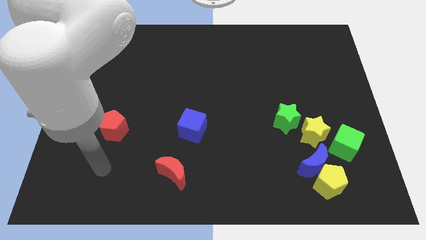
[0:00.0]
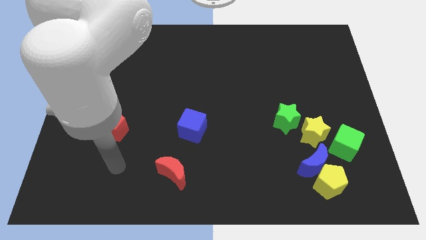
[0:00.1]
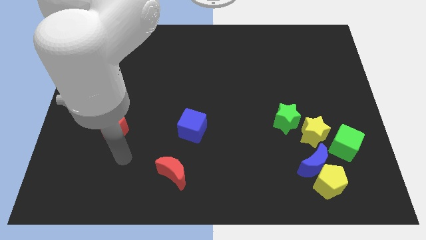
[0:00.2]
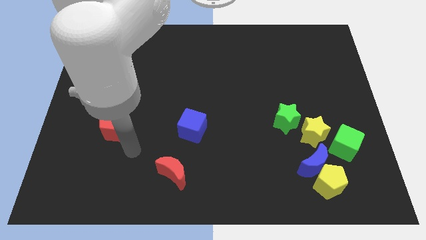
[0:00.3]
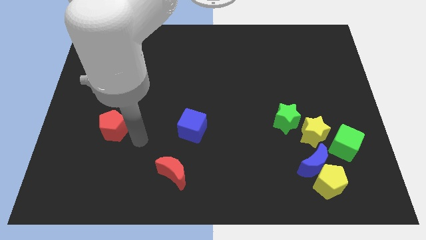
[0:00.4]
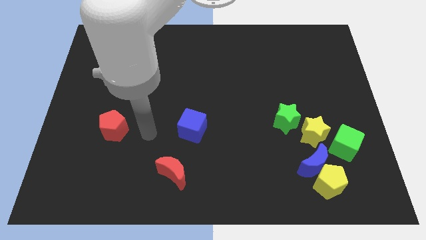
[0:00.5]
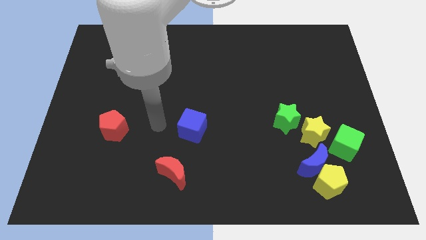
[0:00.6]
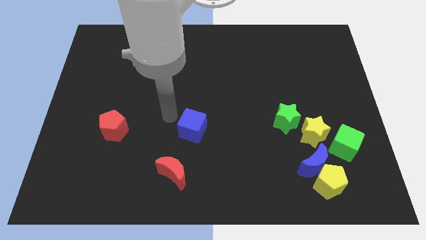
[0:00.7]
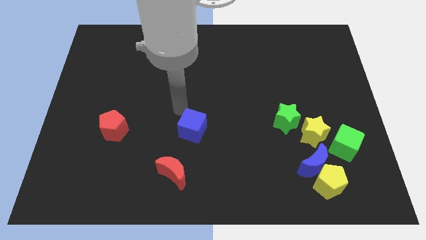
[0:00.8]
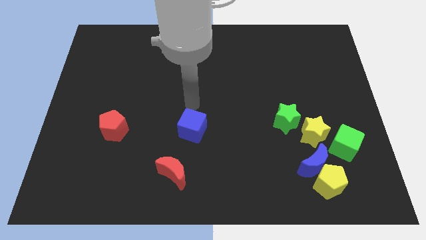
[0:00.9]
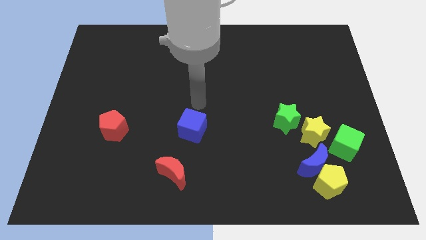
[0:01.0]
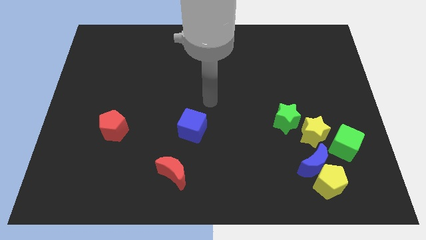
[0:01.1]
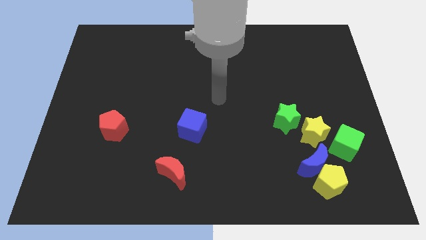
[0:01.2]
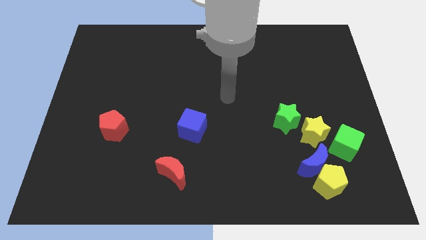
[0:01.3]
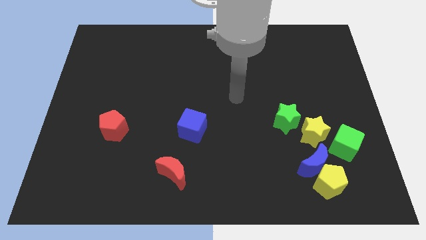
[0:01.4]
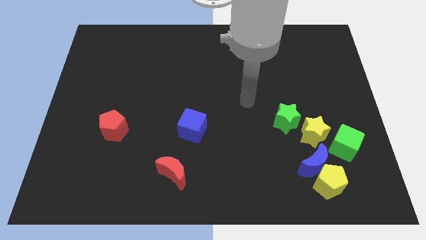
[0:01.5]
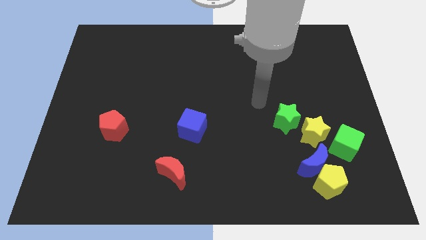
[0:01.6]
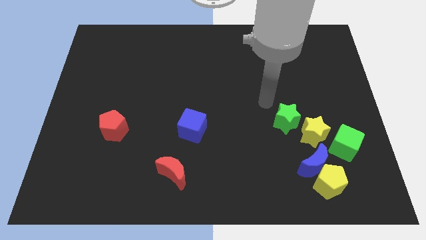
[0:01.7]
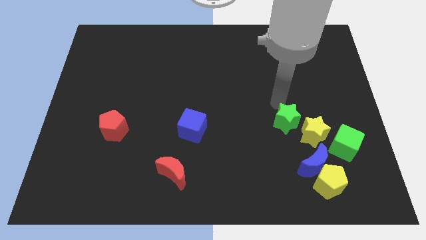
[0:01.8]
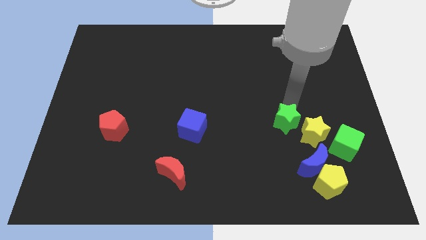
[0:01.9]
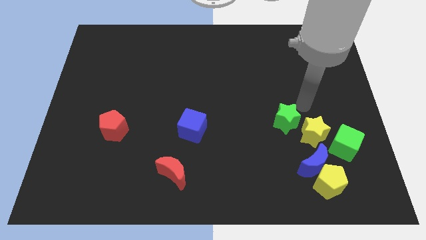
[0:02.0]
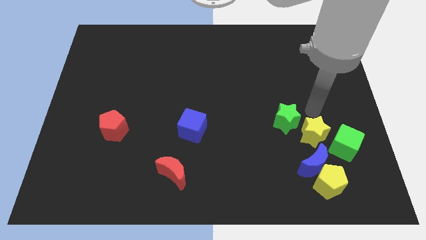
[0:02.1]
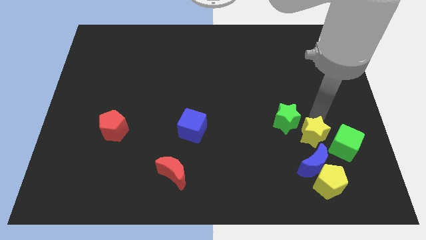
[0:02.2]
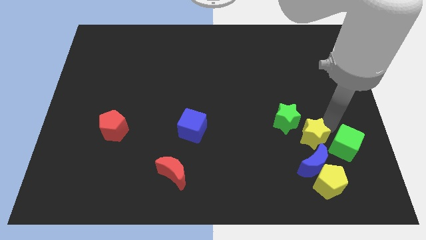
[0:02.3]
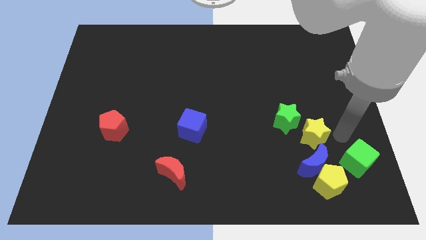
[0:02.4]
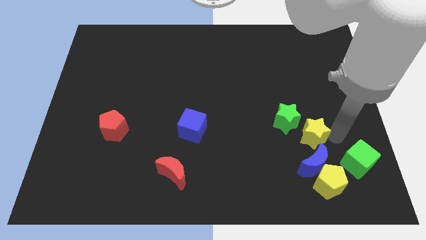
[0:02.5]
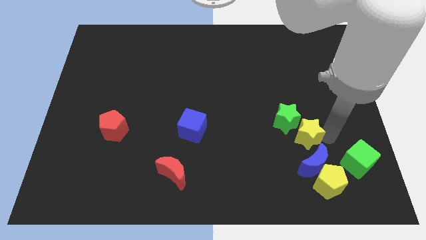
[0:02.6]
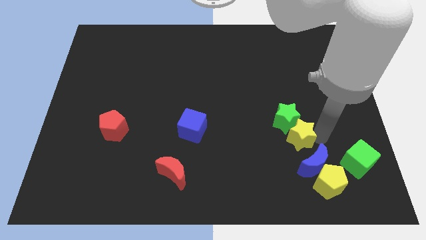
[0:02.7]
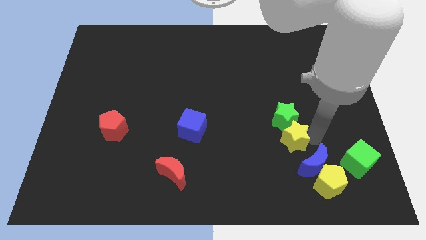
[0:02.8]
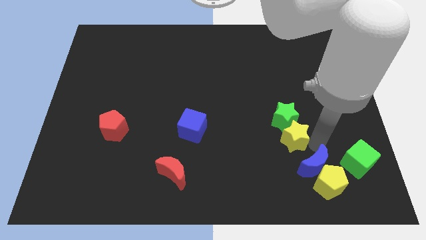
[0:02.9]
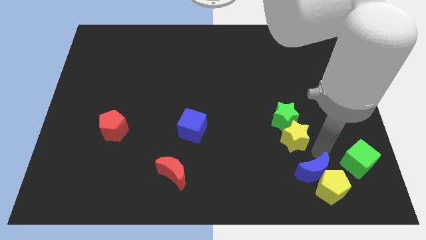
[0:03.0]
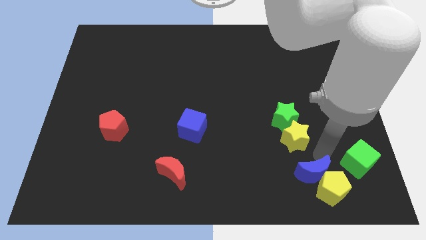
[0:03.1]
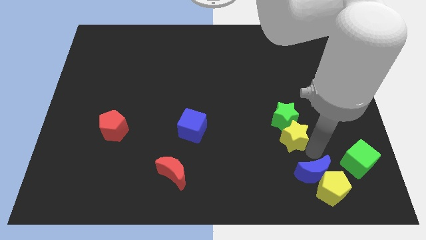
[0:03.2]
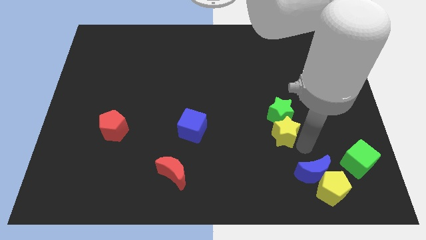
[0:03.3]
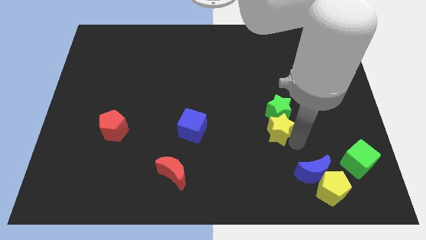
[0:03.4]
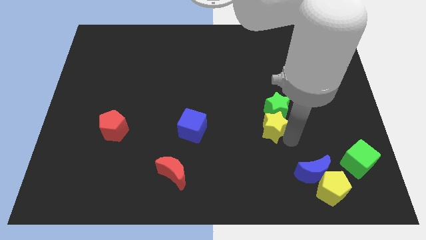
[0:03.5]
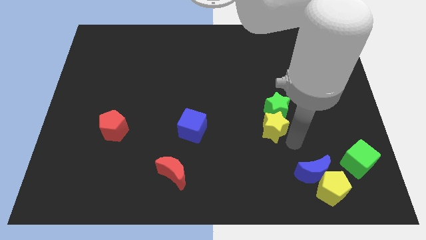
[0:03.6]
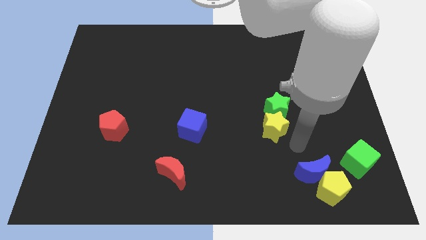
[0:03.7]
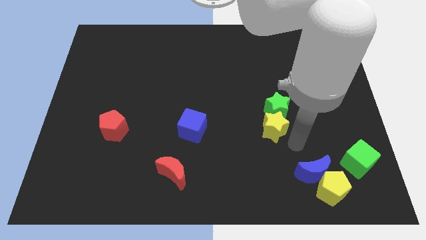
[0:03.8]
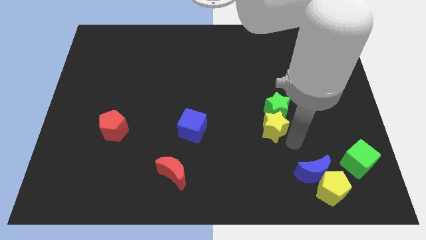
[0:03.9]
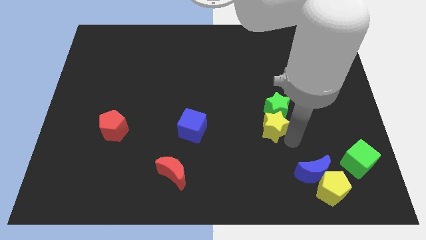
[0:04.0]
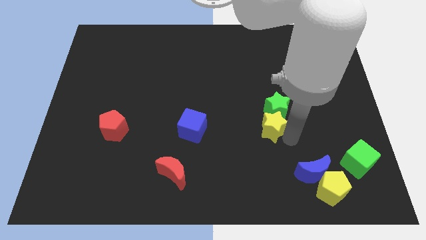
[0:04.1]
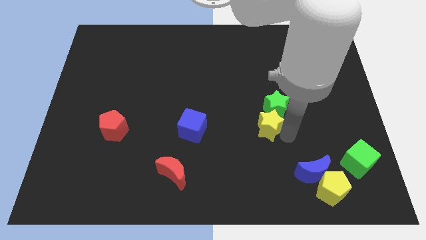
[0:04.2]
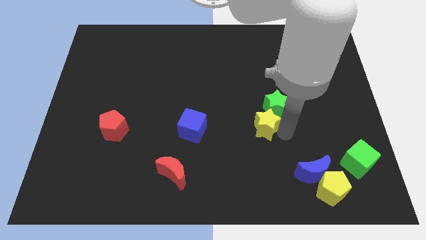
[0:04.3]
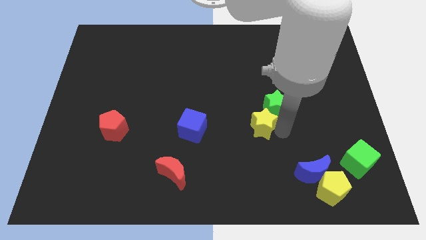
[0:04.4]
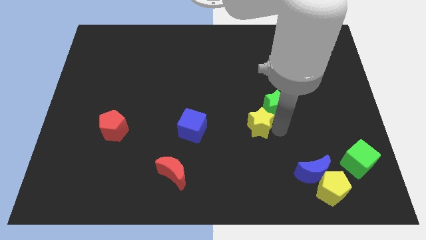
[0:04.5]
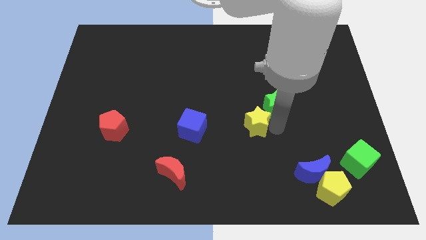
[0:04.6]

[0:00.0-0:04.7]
push the yellow star to the middle

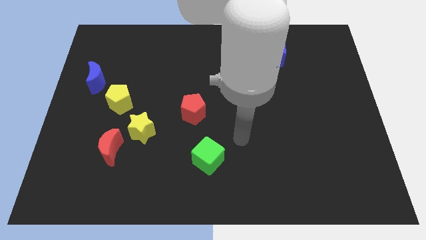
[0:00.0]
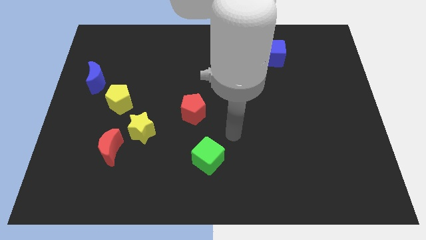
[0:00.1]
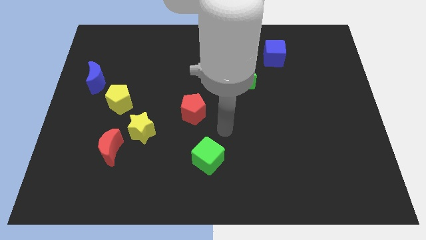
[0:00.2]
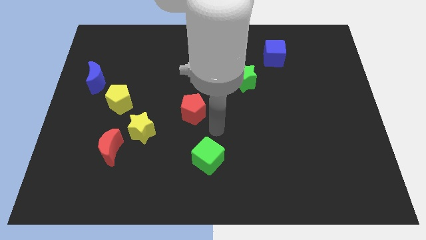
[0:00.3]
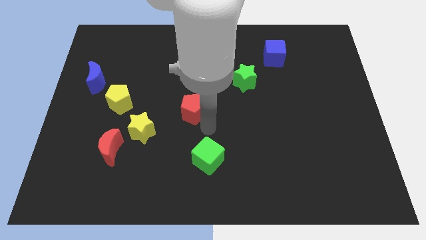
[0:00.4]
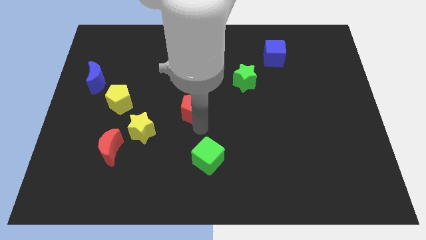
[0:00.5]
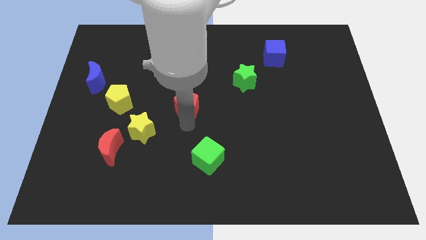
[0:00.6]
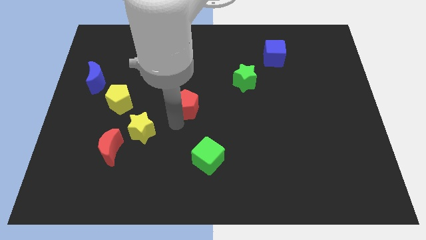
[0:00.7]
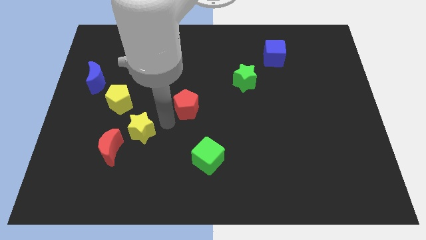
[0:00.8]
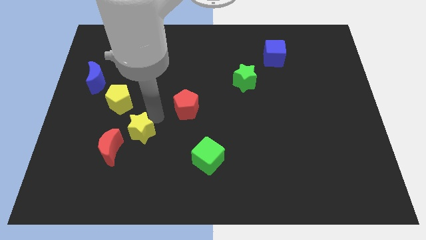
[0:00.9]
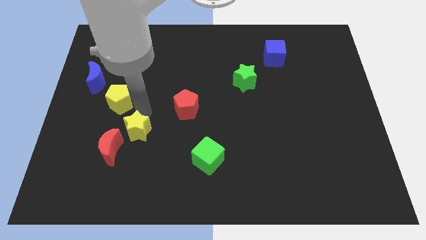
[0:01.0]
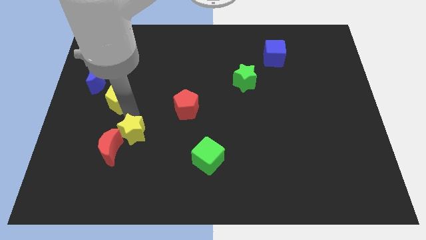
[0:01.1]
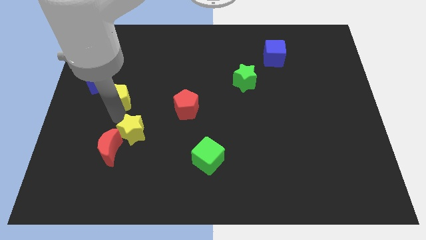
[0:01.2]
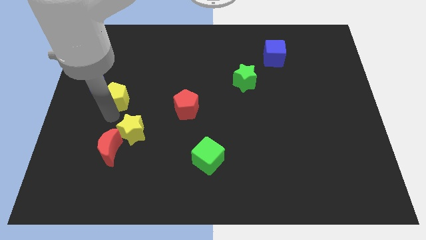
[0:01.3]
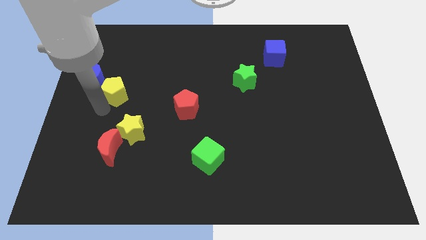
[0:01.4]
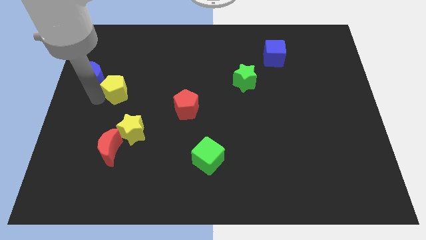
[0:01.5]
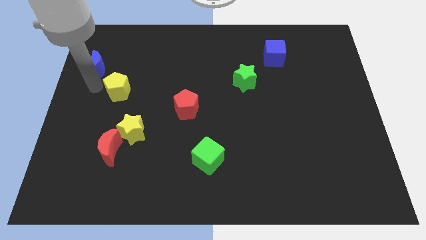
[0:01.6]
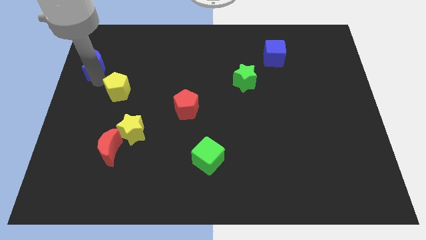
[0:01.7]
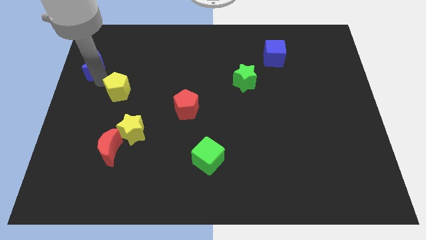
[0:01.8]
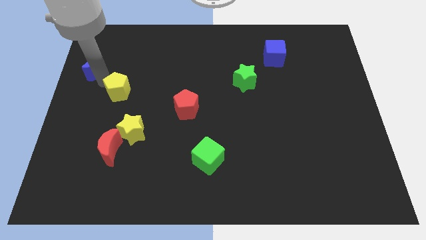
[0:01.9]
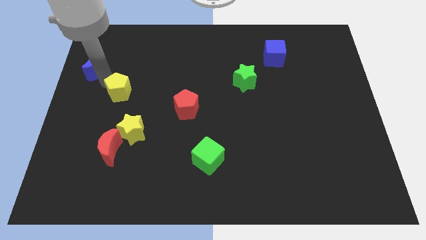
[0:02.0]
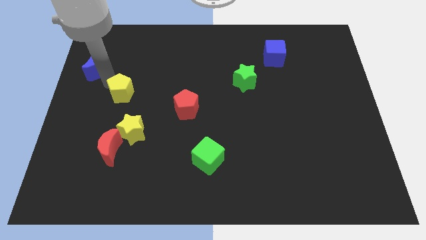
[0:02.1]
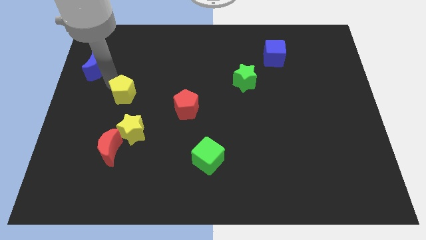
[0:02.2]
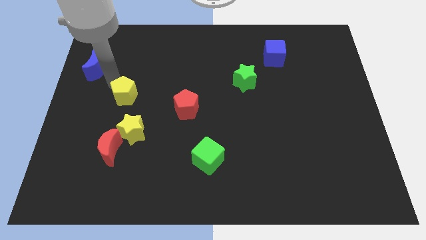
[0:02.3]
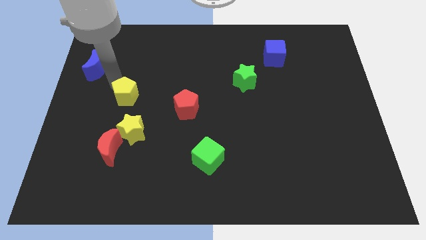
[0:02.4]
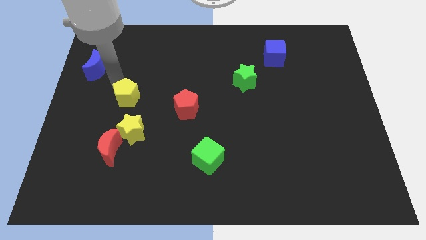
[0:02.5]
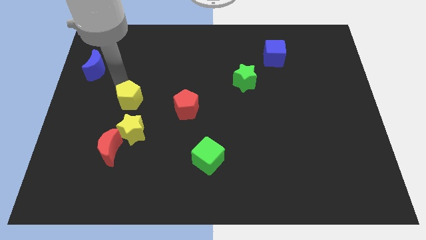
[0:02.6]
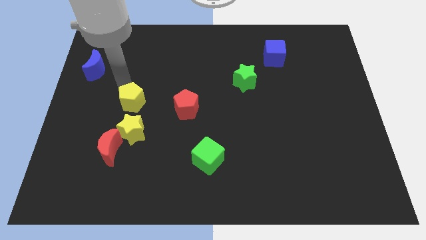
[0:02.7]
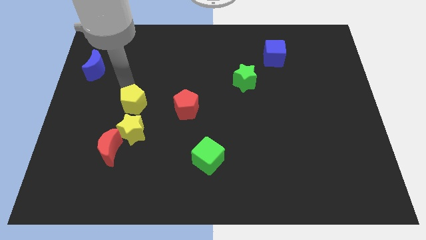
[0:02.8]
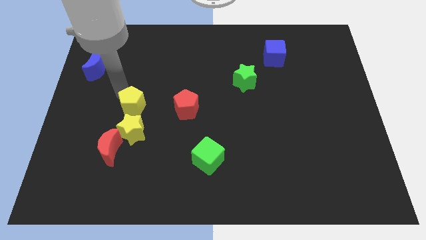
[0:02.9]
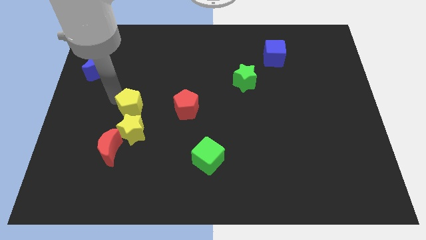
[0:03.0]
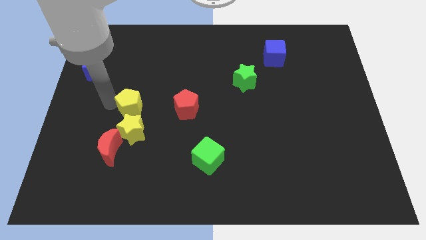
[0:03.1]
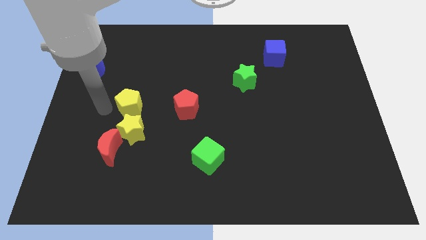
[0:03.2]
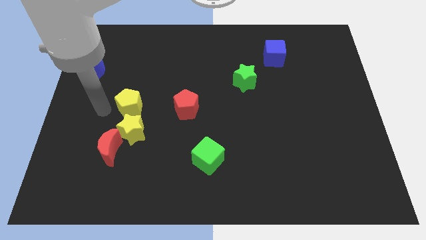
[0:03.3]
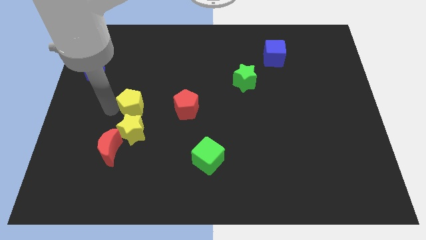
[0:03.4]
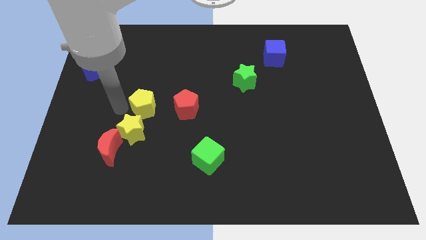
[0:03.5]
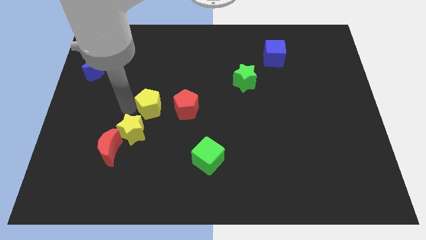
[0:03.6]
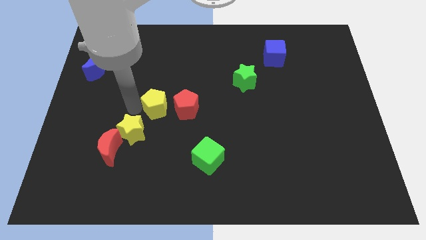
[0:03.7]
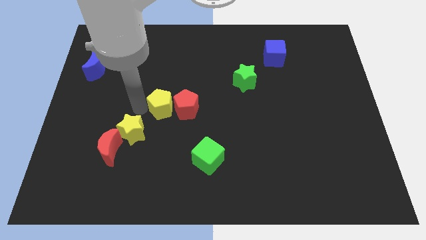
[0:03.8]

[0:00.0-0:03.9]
push the yellow pentagon to the middle
